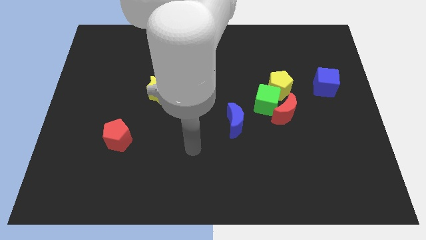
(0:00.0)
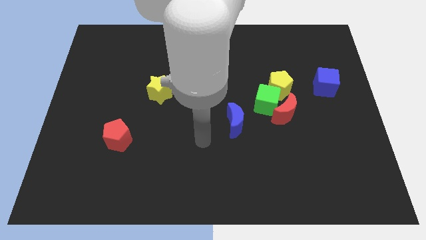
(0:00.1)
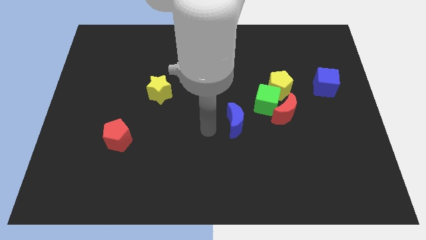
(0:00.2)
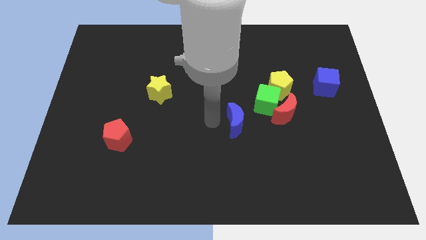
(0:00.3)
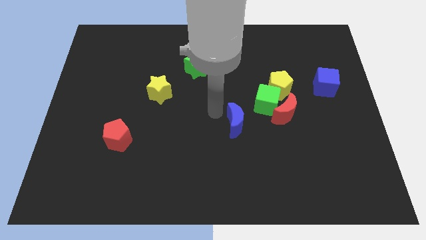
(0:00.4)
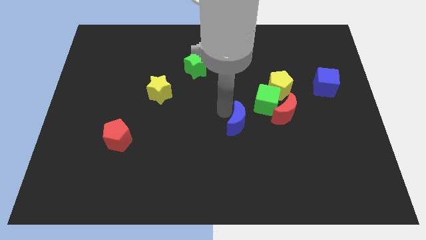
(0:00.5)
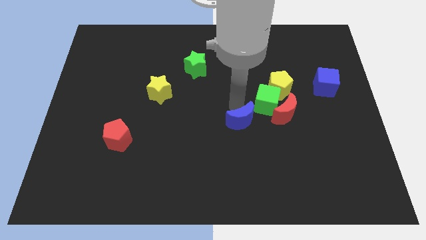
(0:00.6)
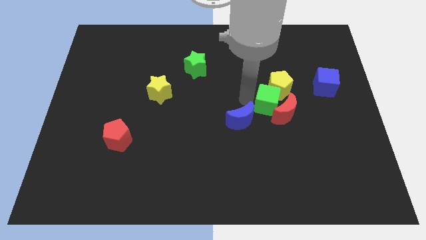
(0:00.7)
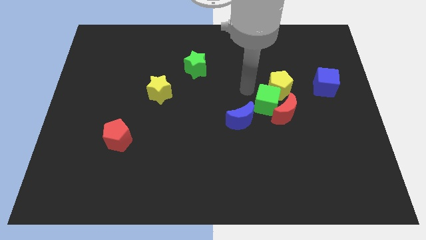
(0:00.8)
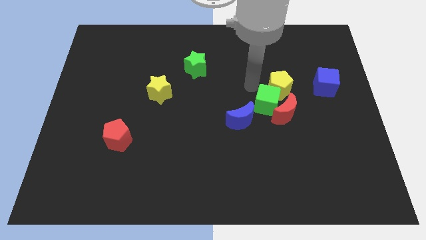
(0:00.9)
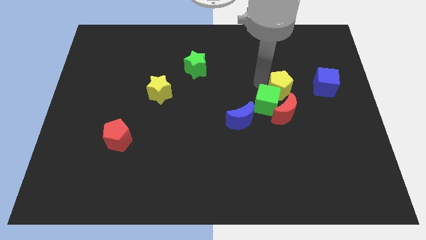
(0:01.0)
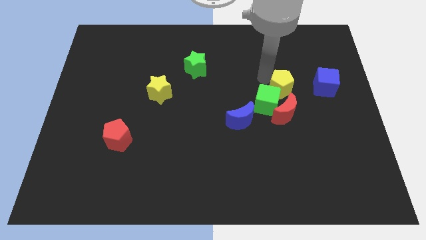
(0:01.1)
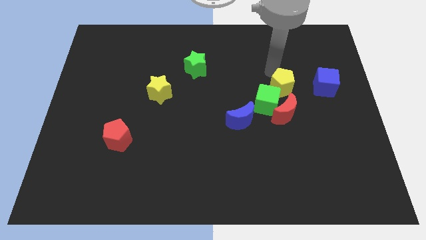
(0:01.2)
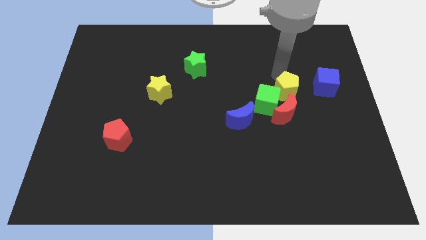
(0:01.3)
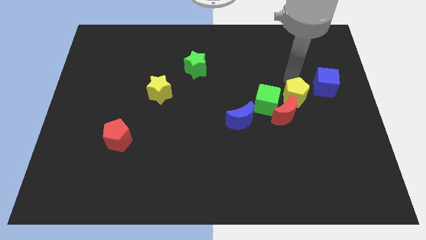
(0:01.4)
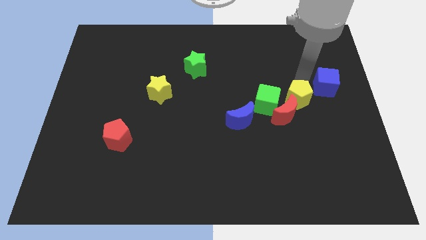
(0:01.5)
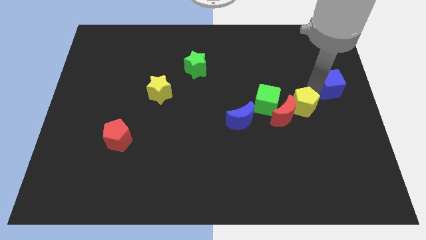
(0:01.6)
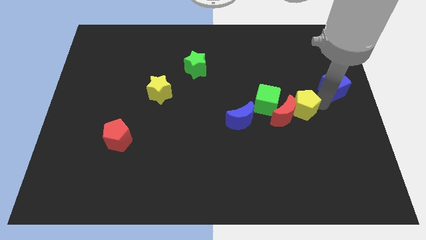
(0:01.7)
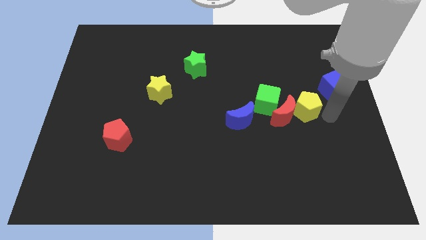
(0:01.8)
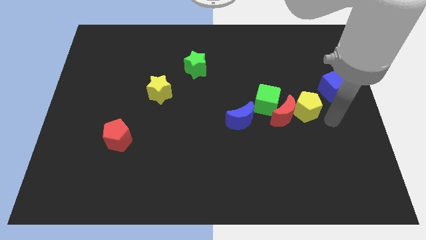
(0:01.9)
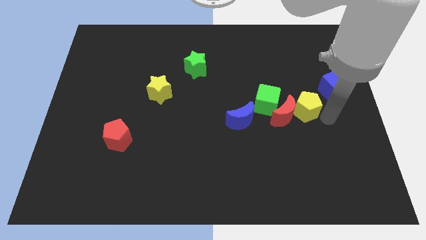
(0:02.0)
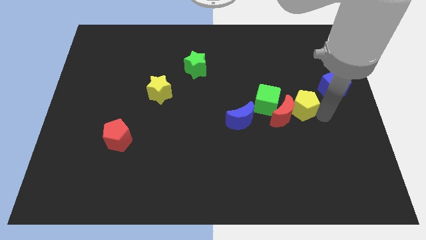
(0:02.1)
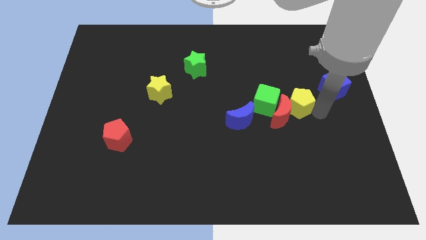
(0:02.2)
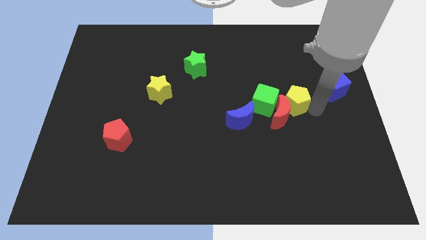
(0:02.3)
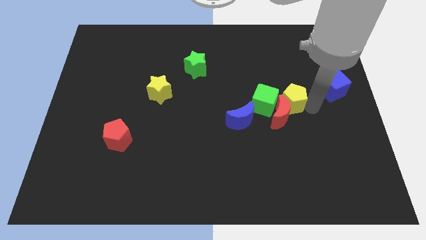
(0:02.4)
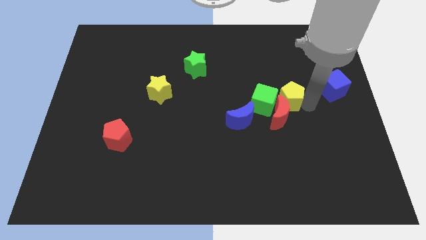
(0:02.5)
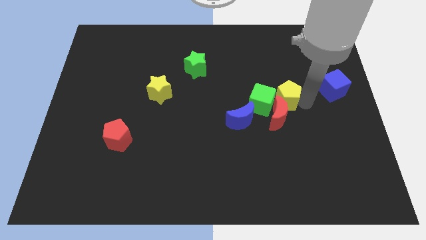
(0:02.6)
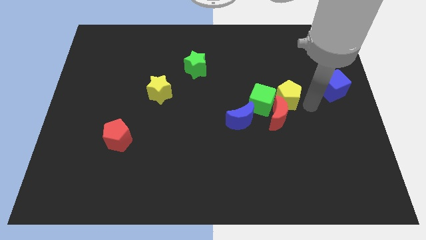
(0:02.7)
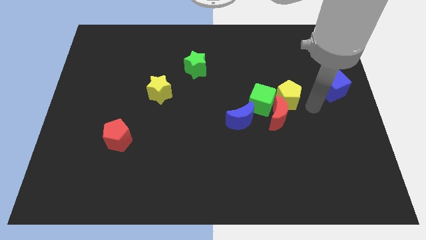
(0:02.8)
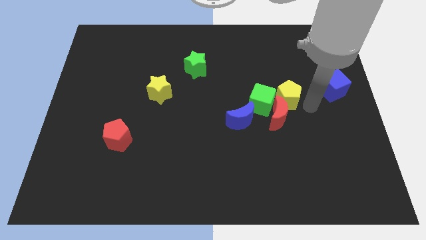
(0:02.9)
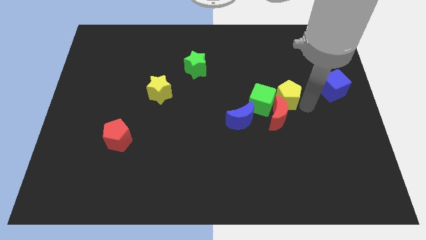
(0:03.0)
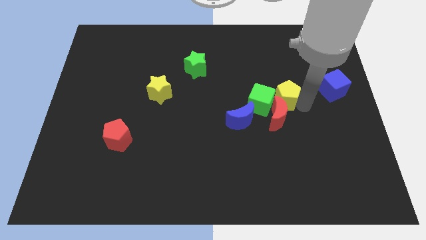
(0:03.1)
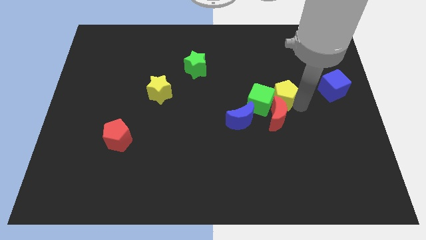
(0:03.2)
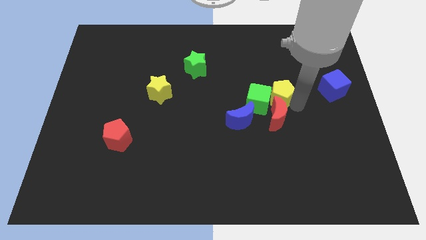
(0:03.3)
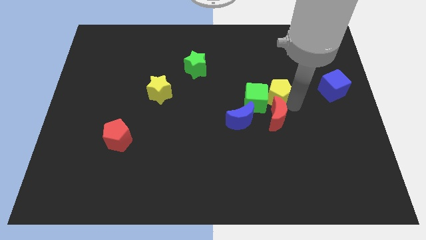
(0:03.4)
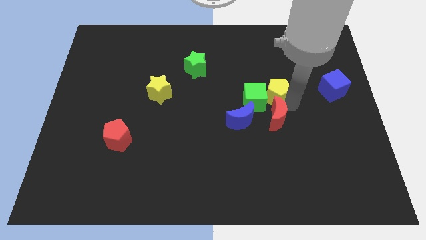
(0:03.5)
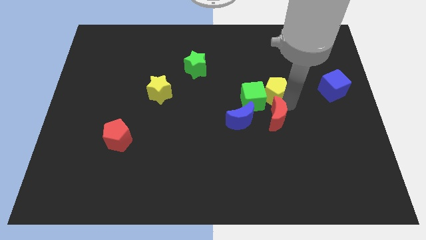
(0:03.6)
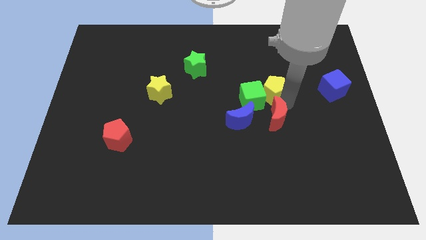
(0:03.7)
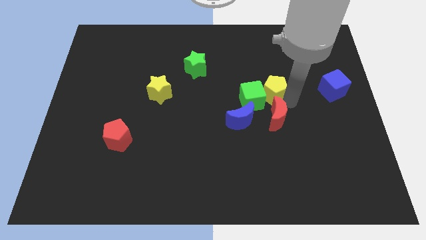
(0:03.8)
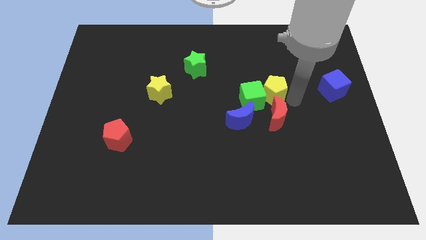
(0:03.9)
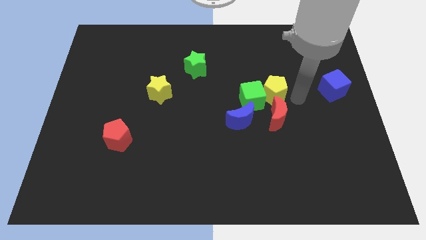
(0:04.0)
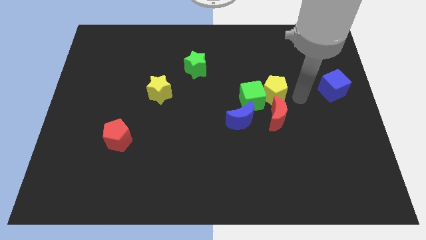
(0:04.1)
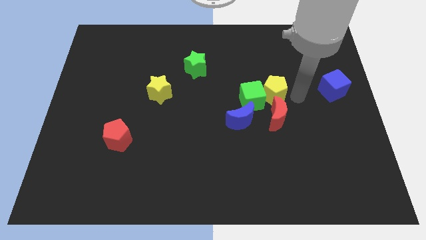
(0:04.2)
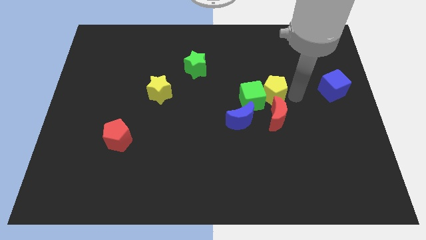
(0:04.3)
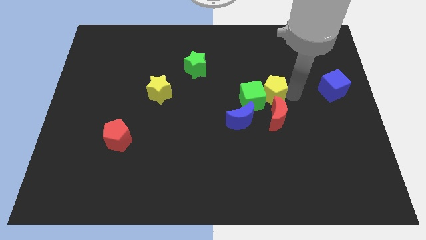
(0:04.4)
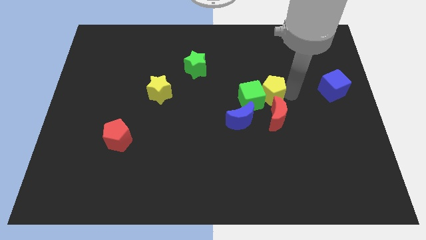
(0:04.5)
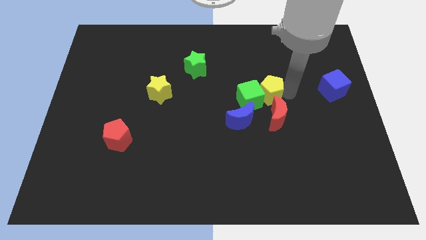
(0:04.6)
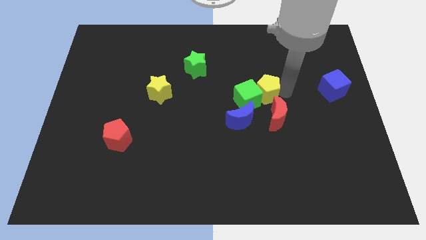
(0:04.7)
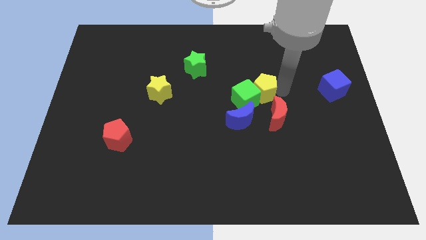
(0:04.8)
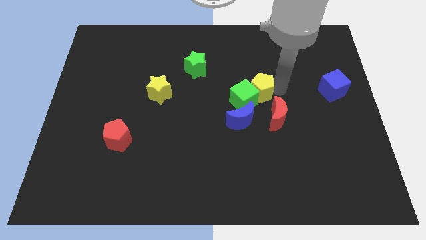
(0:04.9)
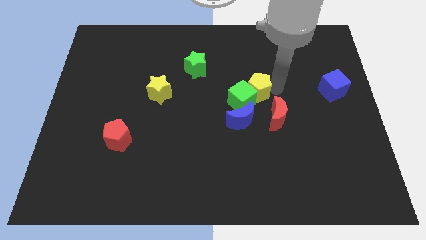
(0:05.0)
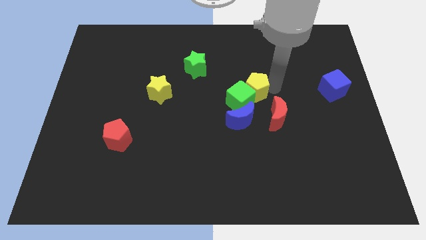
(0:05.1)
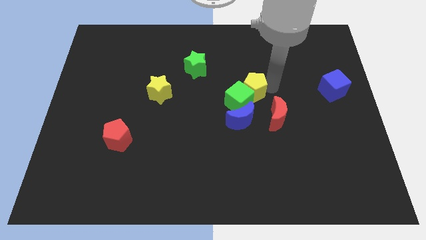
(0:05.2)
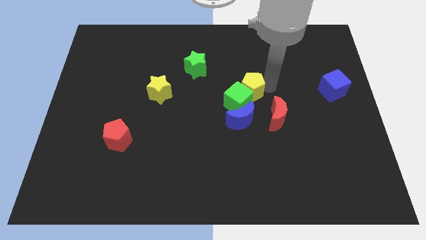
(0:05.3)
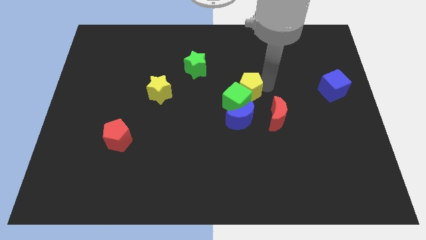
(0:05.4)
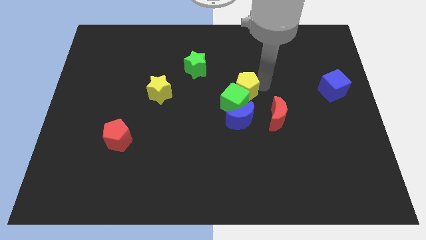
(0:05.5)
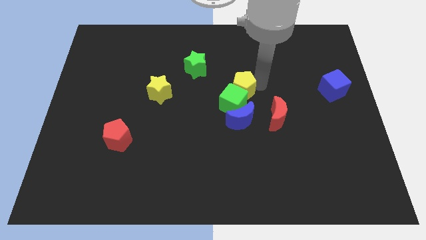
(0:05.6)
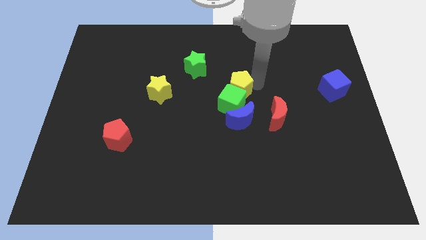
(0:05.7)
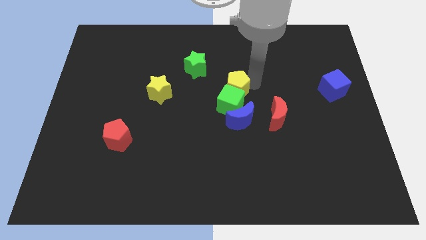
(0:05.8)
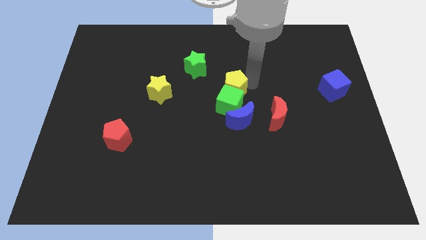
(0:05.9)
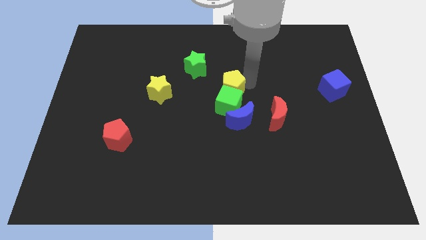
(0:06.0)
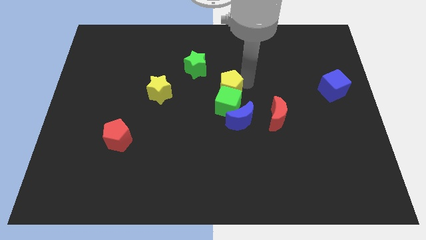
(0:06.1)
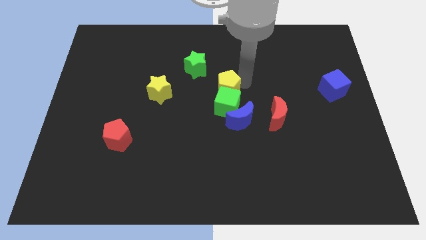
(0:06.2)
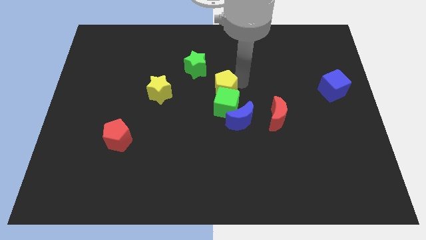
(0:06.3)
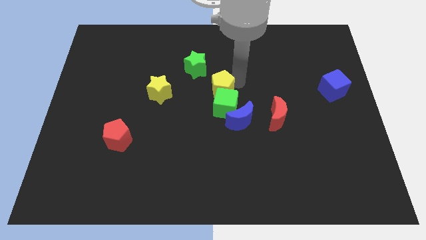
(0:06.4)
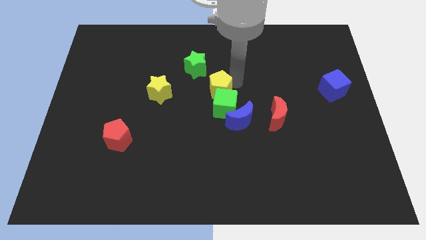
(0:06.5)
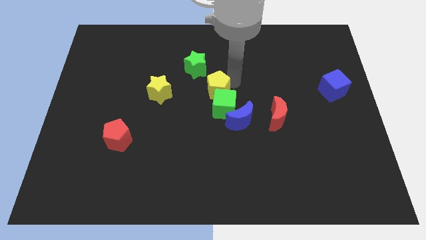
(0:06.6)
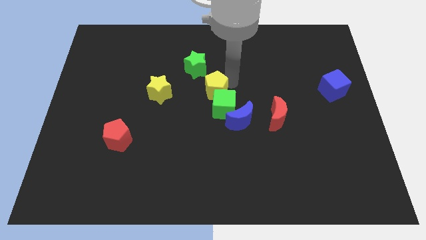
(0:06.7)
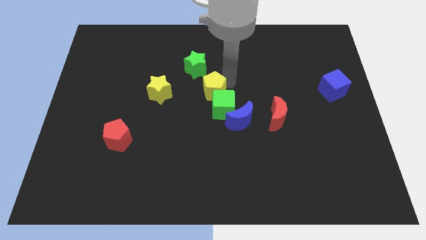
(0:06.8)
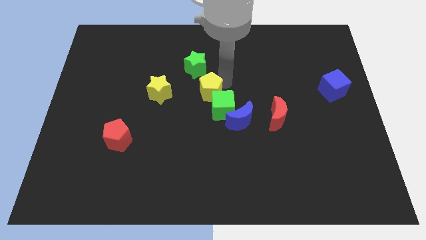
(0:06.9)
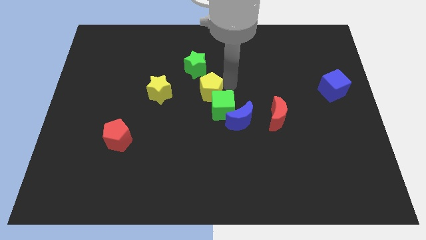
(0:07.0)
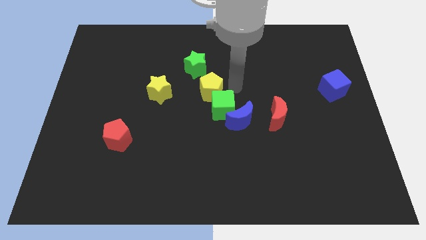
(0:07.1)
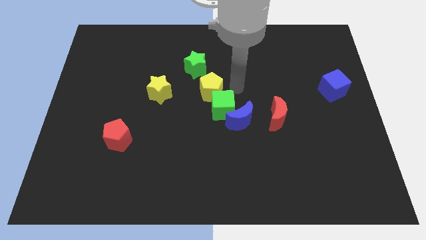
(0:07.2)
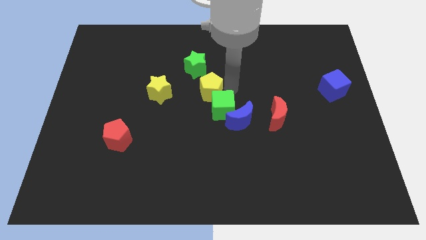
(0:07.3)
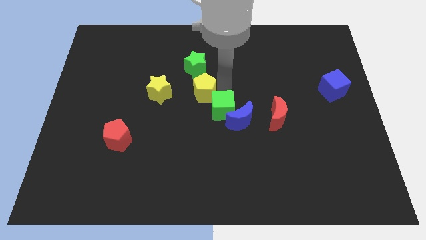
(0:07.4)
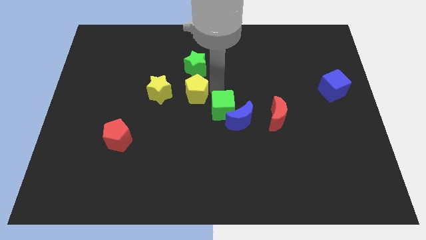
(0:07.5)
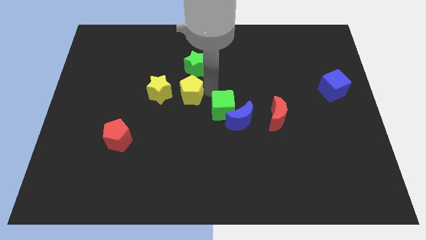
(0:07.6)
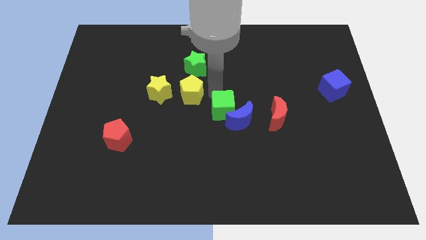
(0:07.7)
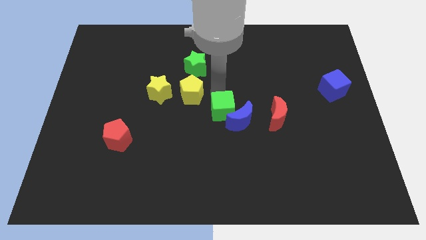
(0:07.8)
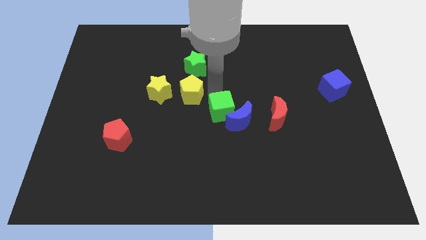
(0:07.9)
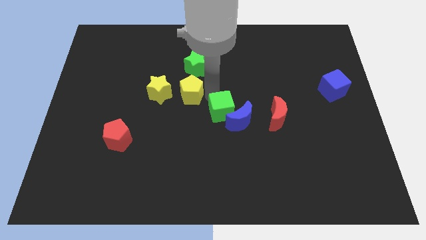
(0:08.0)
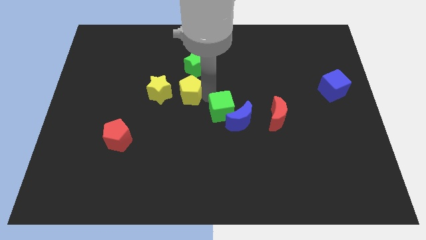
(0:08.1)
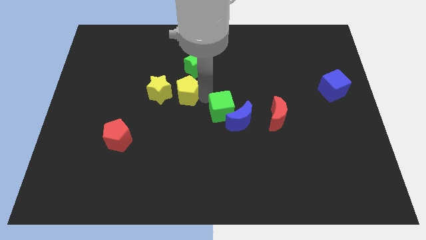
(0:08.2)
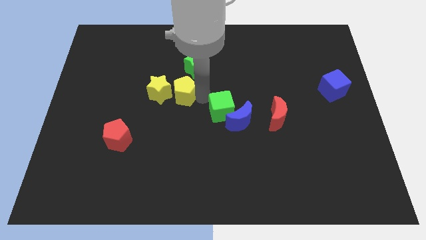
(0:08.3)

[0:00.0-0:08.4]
push the yellow pentagon to the yellow star
